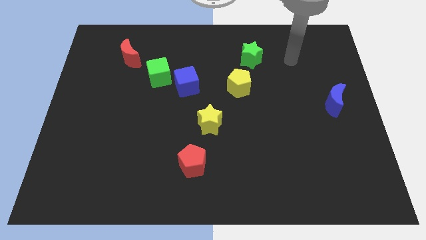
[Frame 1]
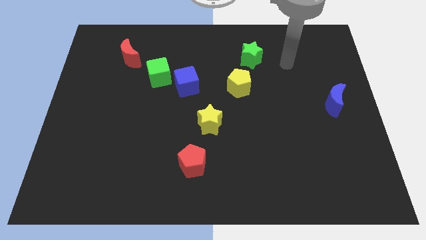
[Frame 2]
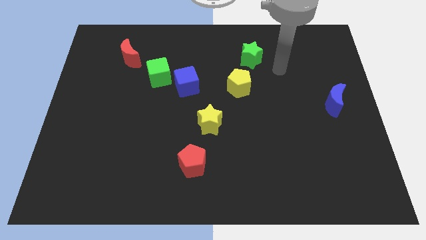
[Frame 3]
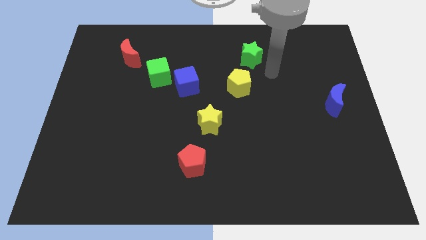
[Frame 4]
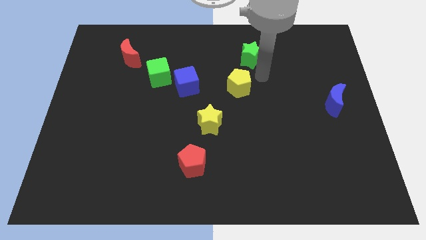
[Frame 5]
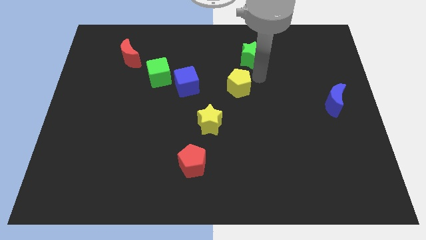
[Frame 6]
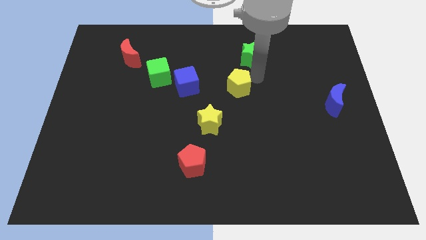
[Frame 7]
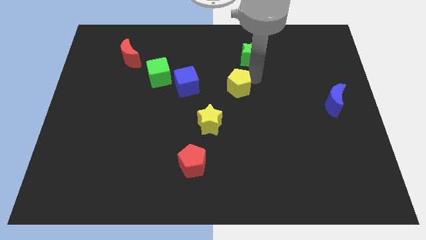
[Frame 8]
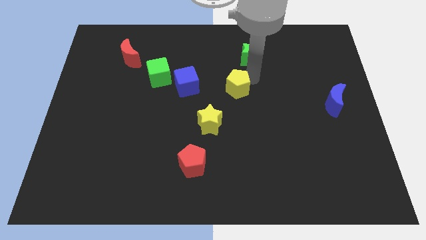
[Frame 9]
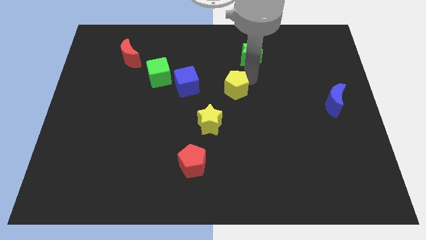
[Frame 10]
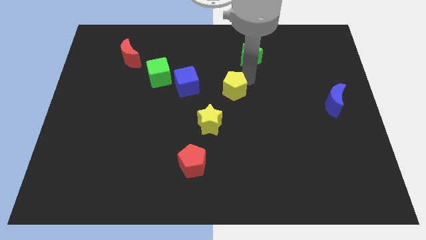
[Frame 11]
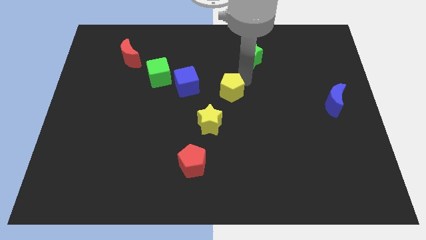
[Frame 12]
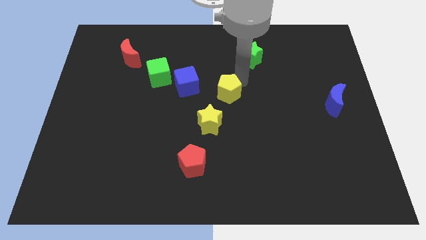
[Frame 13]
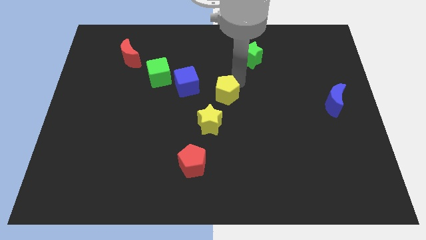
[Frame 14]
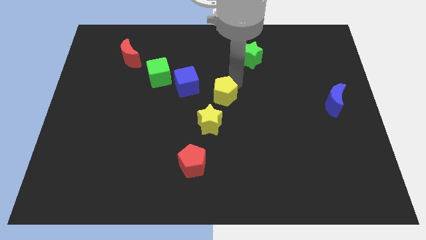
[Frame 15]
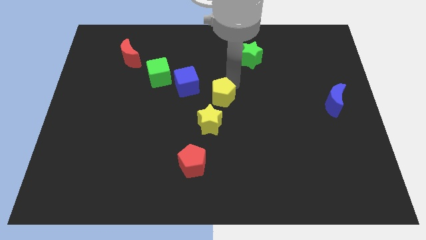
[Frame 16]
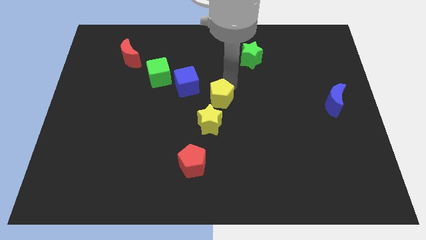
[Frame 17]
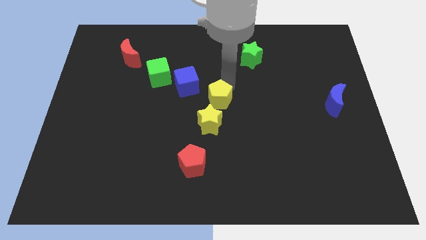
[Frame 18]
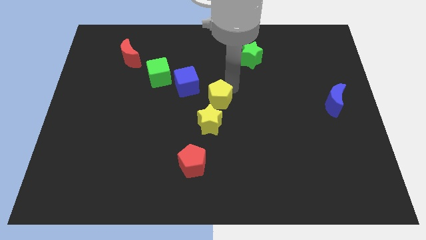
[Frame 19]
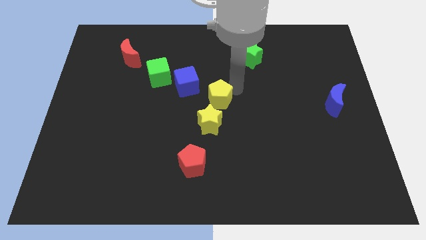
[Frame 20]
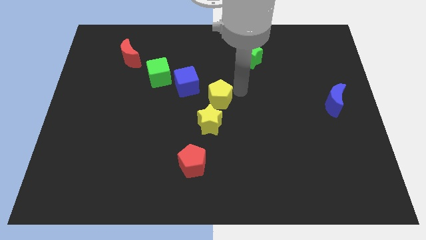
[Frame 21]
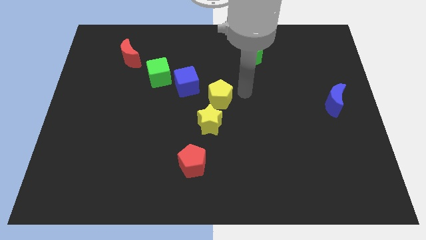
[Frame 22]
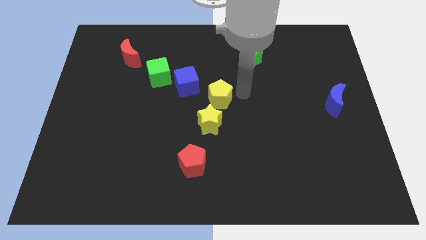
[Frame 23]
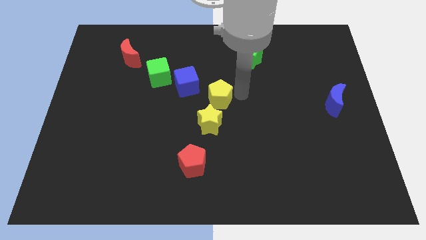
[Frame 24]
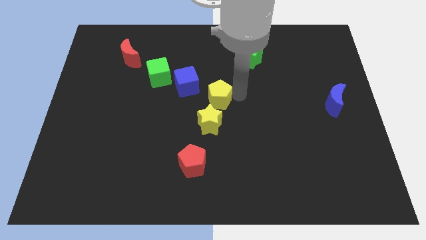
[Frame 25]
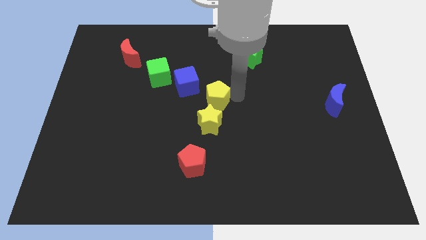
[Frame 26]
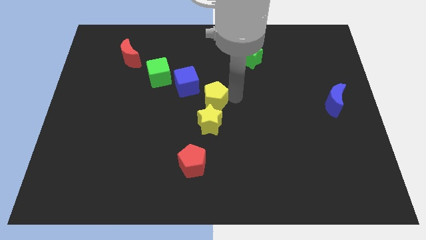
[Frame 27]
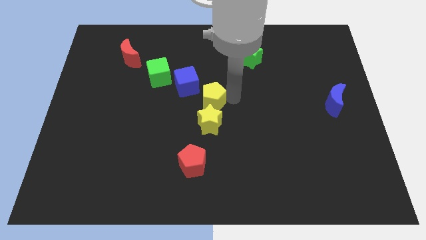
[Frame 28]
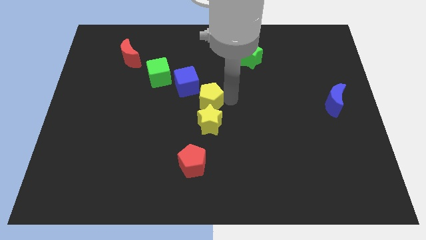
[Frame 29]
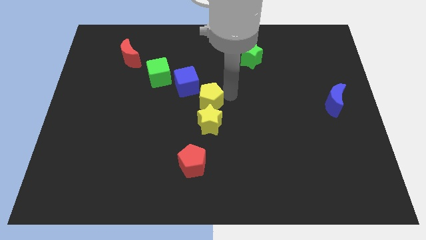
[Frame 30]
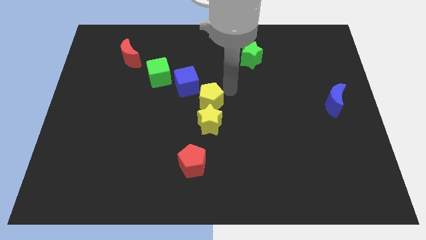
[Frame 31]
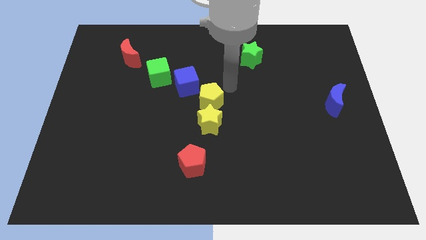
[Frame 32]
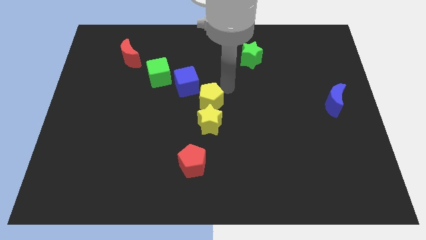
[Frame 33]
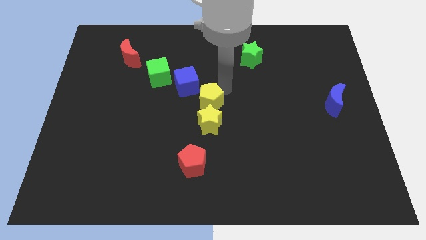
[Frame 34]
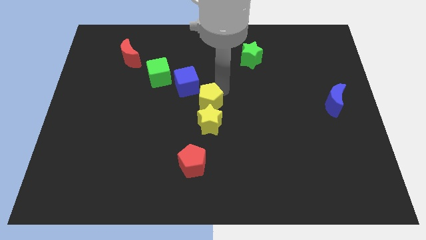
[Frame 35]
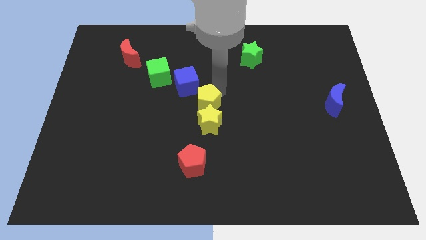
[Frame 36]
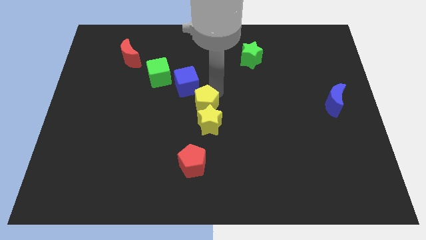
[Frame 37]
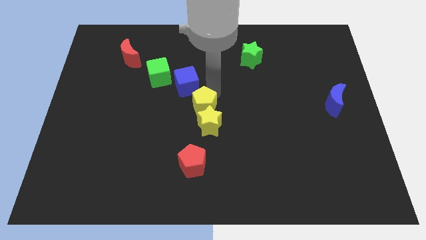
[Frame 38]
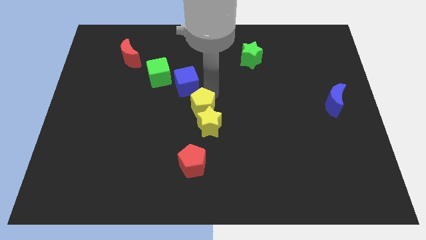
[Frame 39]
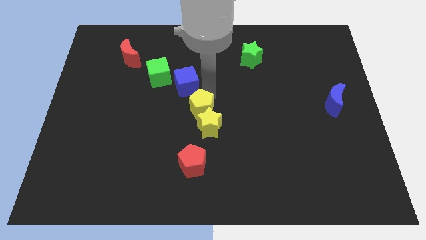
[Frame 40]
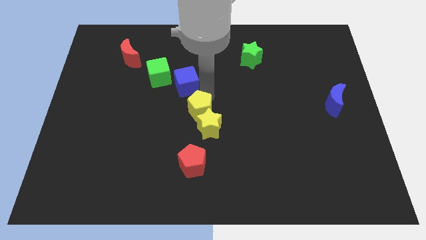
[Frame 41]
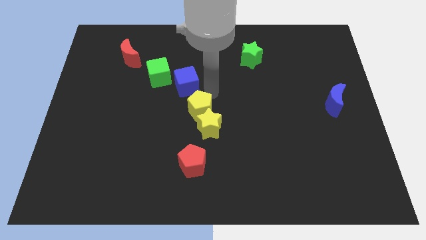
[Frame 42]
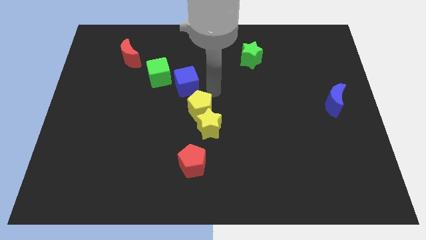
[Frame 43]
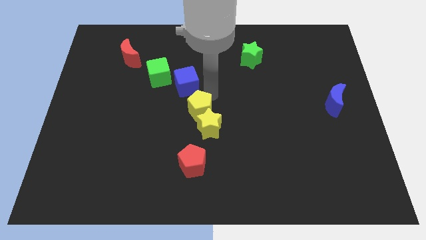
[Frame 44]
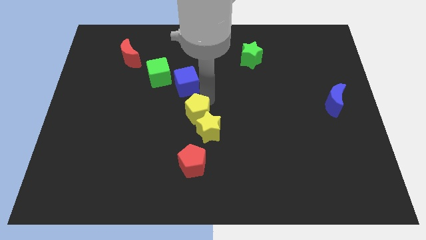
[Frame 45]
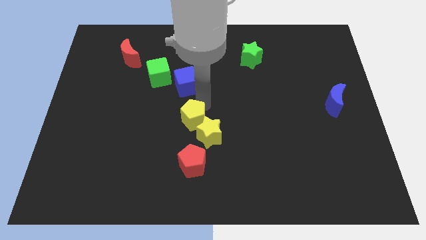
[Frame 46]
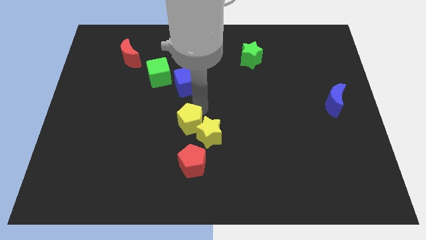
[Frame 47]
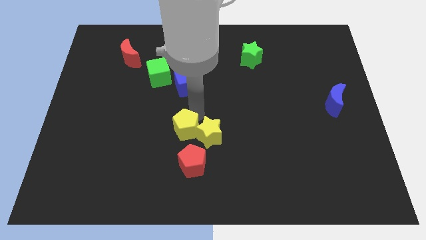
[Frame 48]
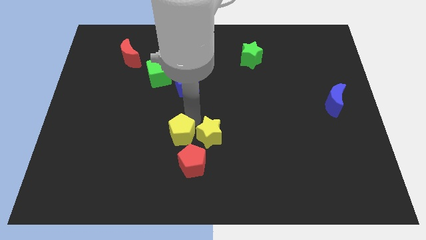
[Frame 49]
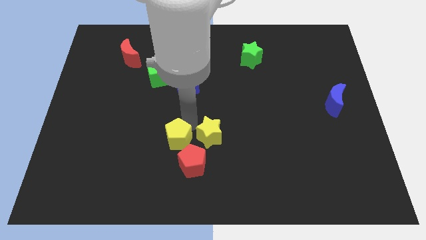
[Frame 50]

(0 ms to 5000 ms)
move the yellow pentagon downwards and to the left diagonally

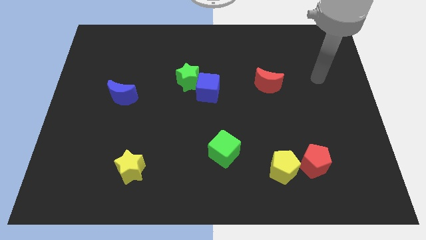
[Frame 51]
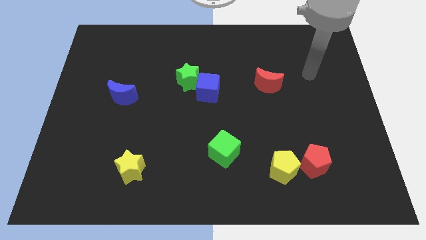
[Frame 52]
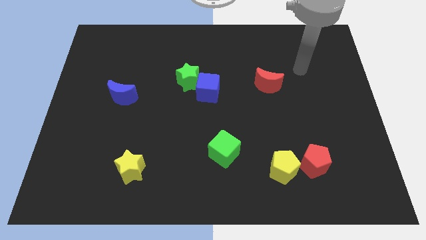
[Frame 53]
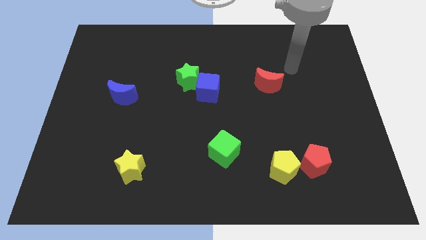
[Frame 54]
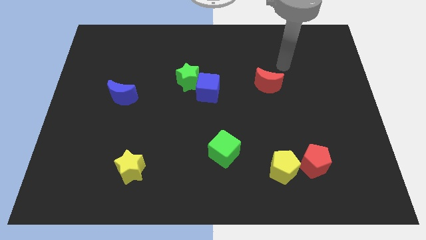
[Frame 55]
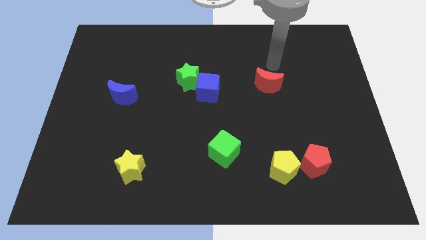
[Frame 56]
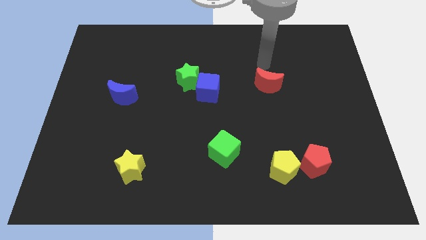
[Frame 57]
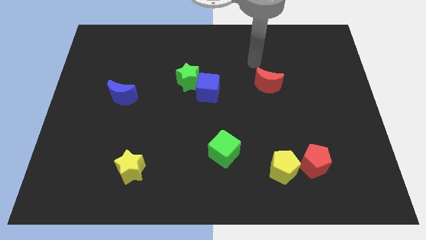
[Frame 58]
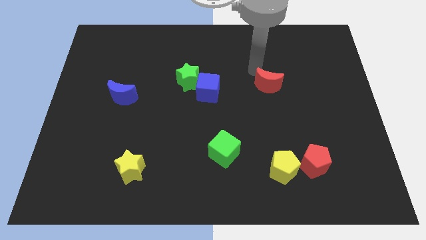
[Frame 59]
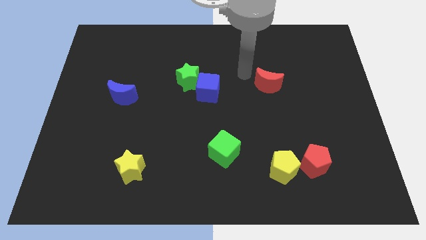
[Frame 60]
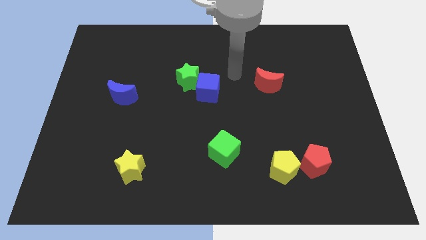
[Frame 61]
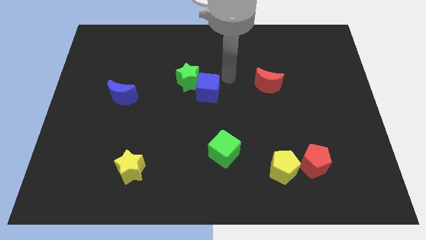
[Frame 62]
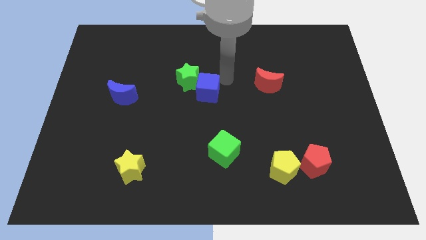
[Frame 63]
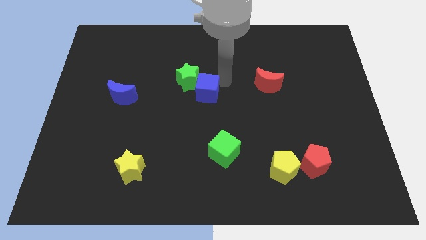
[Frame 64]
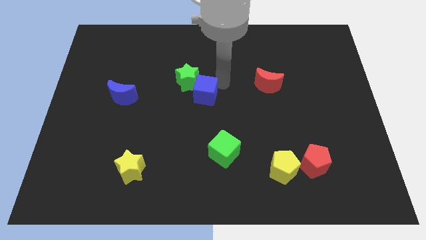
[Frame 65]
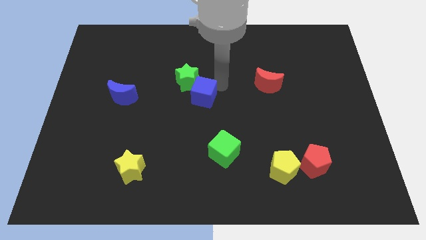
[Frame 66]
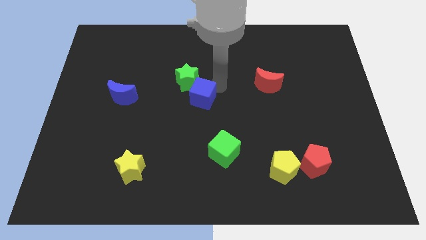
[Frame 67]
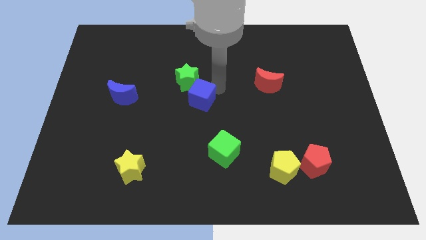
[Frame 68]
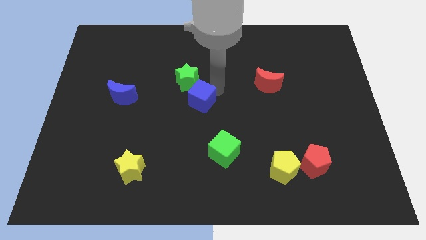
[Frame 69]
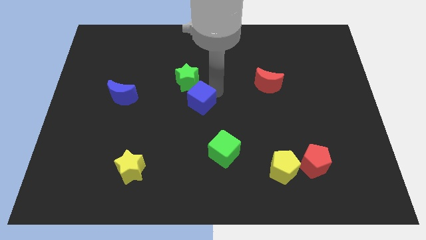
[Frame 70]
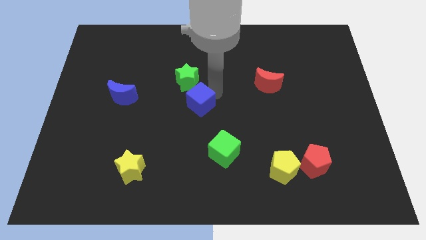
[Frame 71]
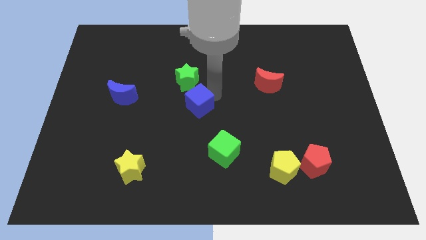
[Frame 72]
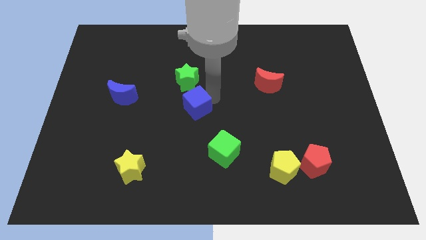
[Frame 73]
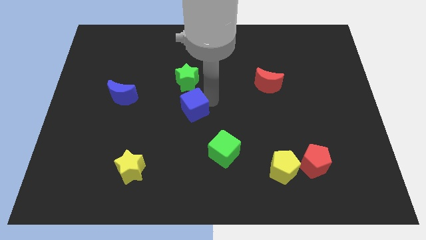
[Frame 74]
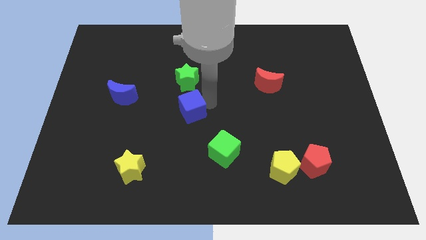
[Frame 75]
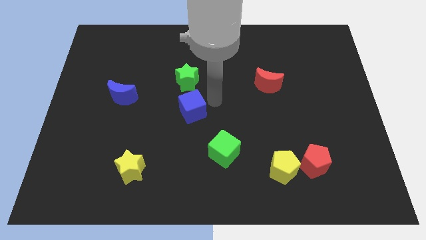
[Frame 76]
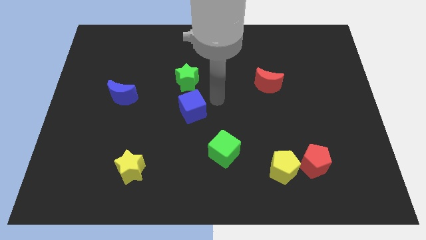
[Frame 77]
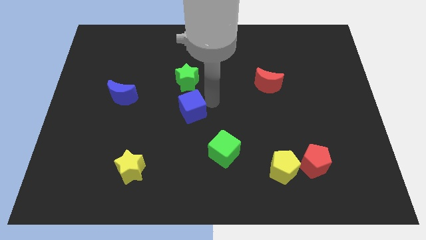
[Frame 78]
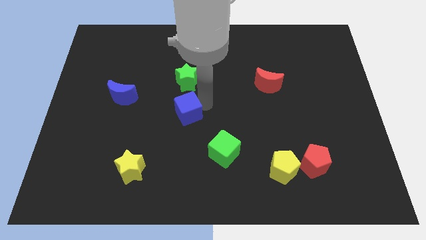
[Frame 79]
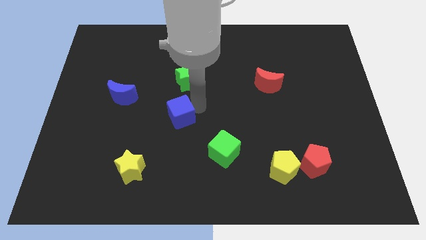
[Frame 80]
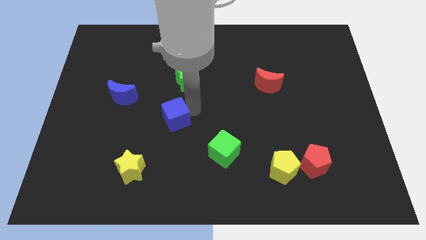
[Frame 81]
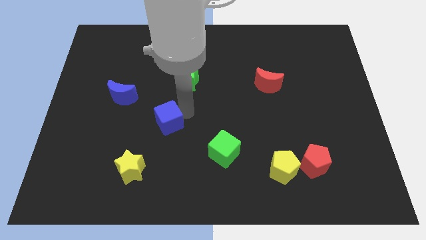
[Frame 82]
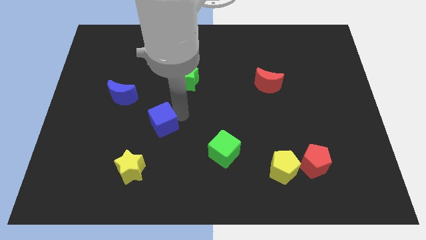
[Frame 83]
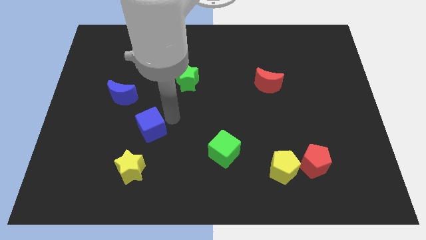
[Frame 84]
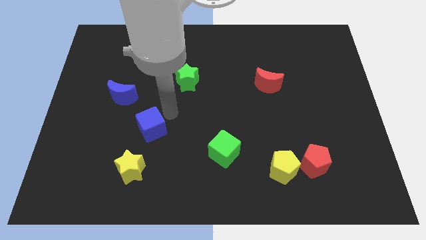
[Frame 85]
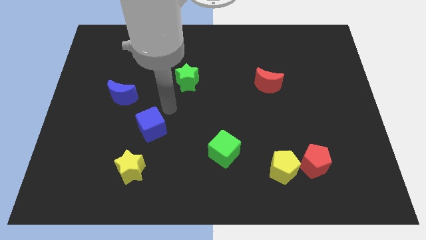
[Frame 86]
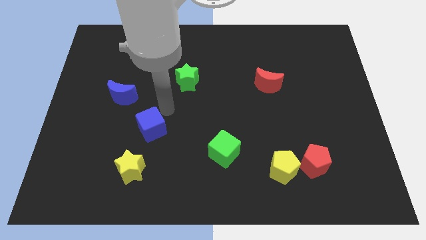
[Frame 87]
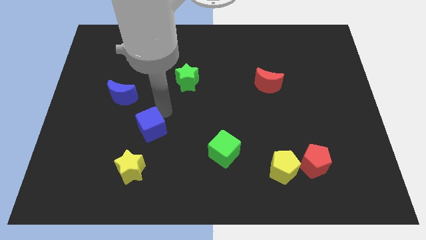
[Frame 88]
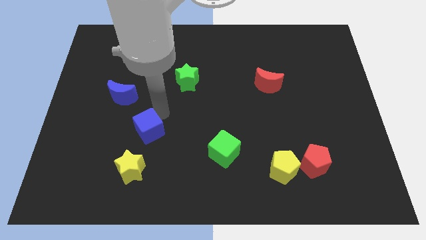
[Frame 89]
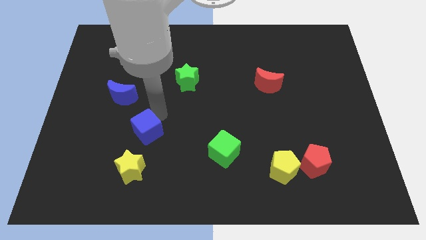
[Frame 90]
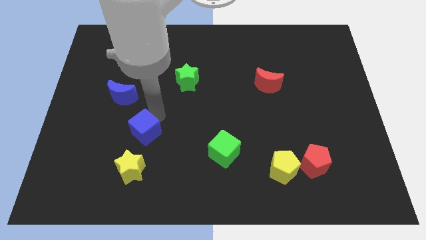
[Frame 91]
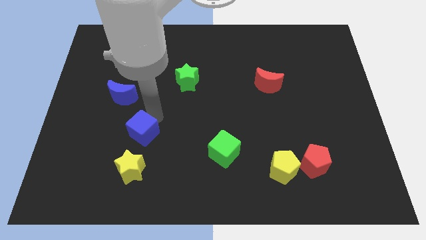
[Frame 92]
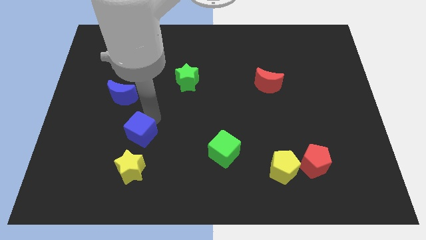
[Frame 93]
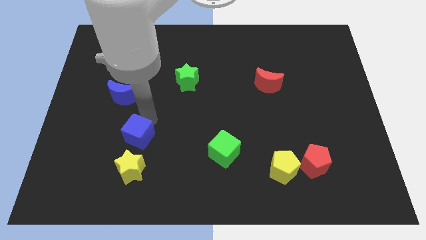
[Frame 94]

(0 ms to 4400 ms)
push the blue cube down and left
